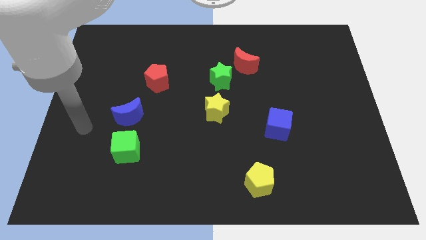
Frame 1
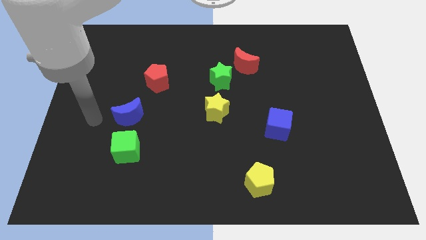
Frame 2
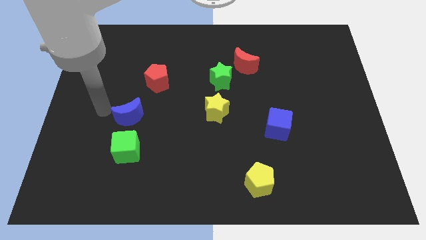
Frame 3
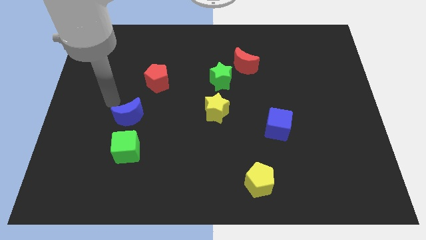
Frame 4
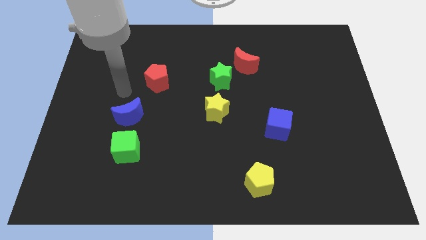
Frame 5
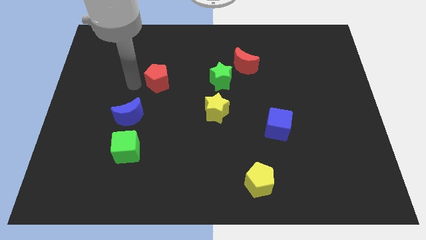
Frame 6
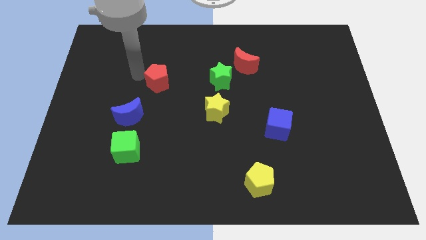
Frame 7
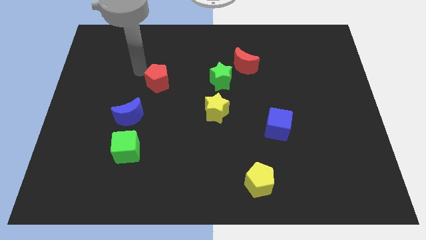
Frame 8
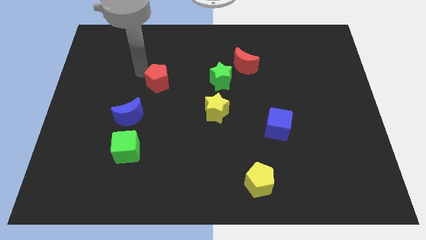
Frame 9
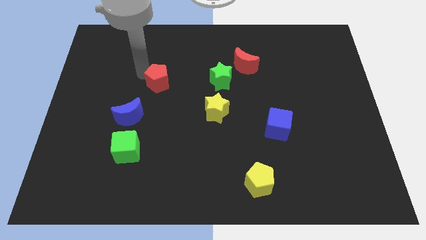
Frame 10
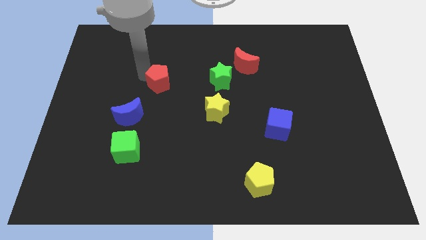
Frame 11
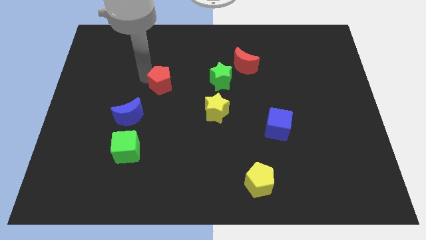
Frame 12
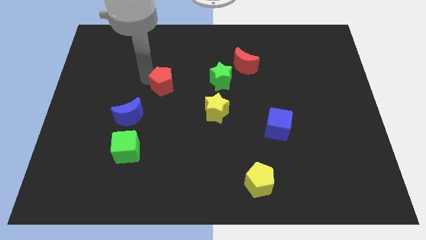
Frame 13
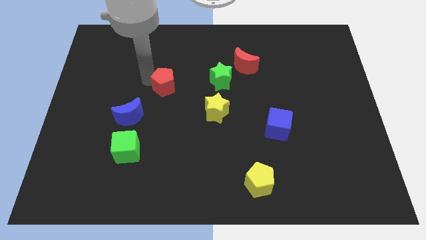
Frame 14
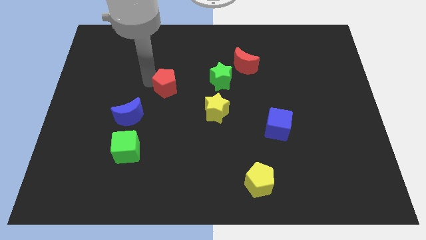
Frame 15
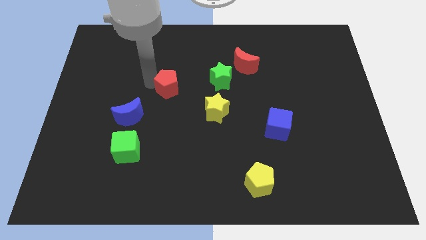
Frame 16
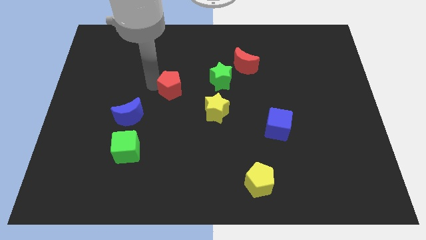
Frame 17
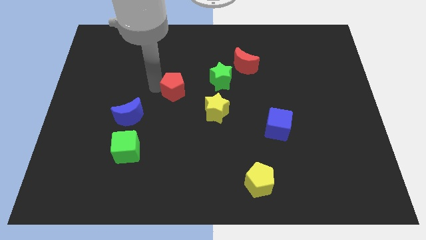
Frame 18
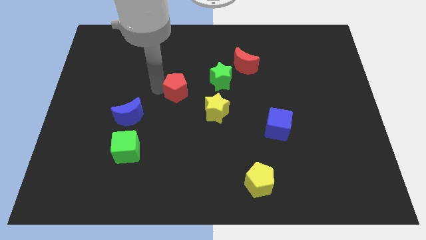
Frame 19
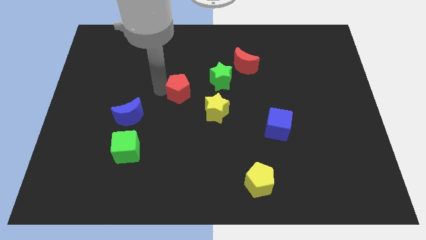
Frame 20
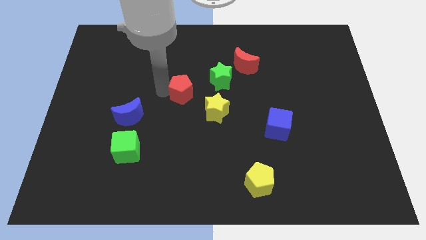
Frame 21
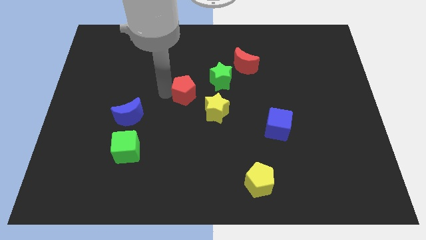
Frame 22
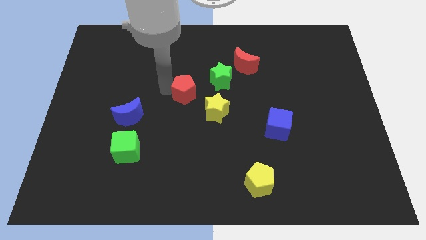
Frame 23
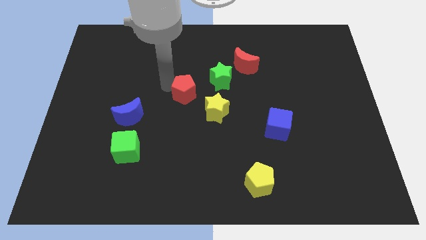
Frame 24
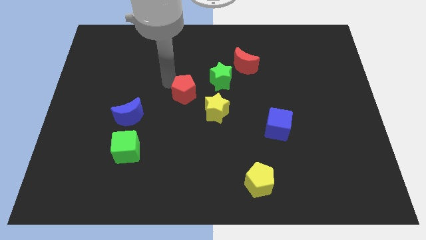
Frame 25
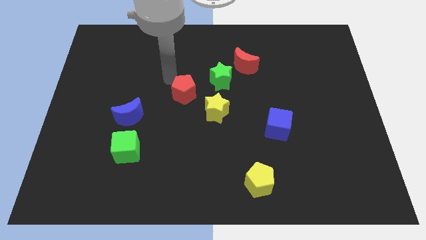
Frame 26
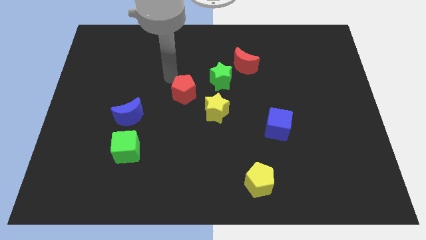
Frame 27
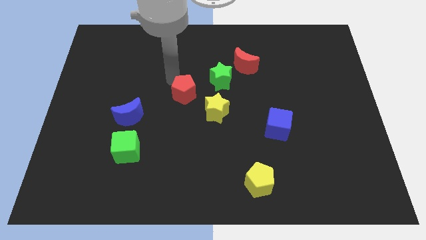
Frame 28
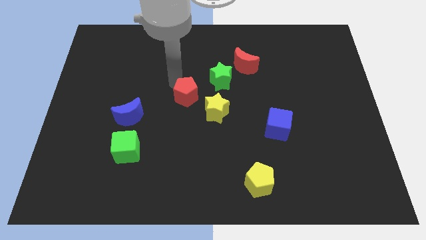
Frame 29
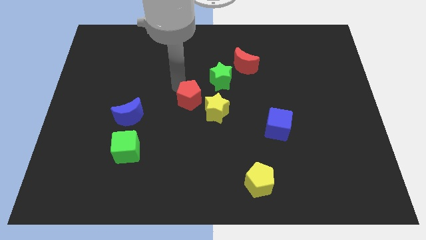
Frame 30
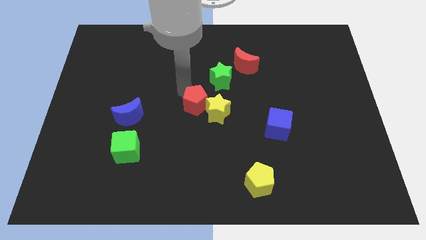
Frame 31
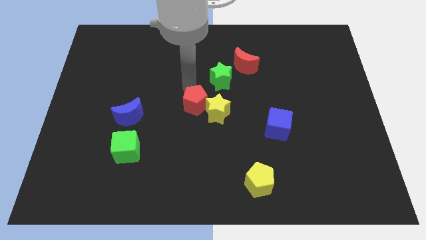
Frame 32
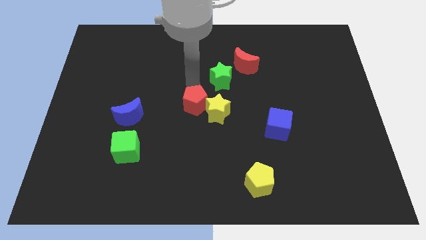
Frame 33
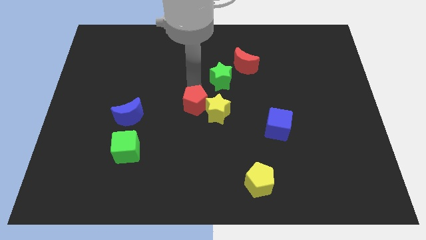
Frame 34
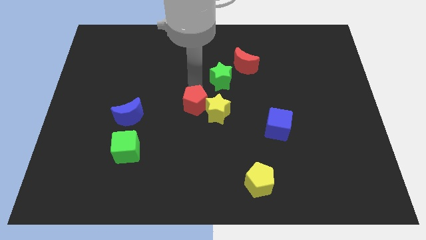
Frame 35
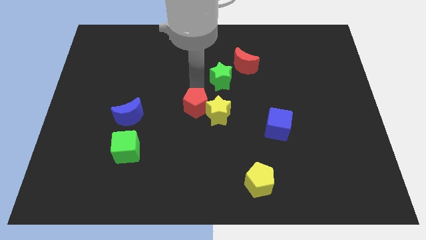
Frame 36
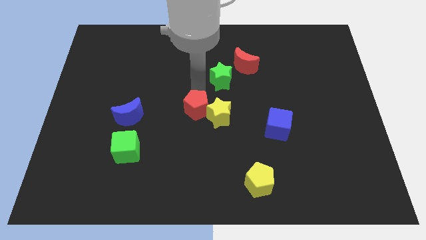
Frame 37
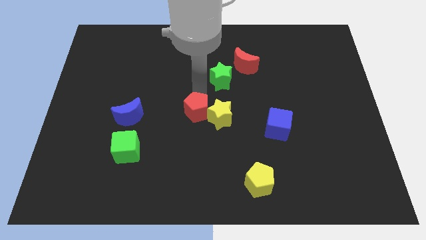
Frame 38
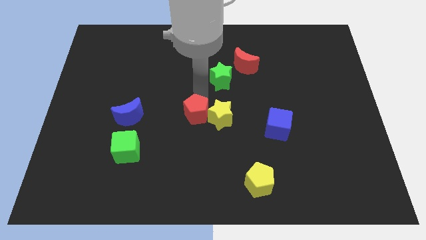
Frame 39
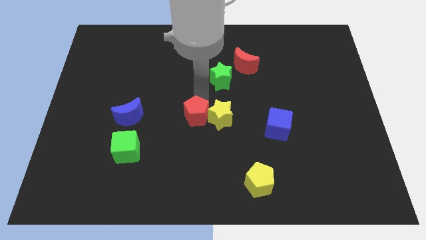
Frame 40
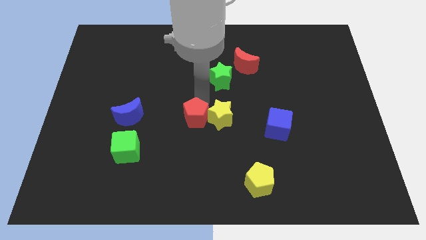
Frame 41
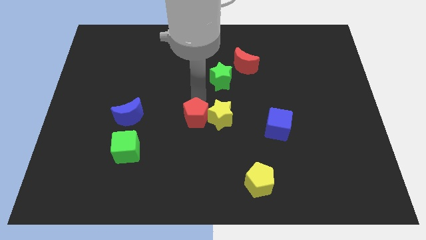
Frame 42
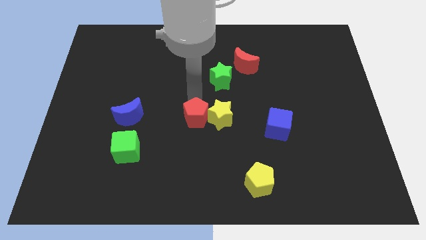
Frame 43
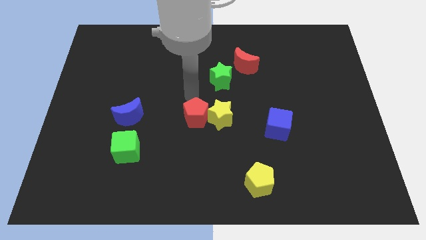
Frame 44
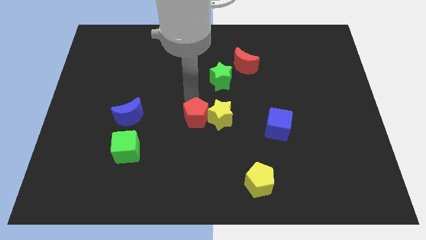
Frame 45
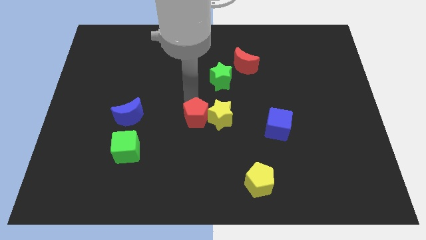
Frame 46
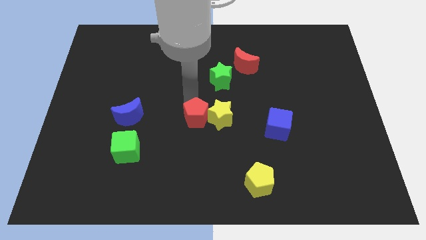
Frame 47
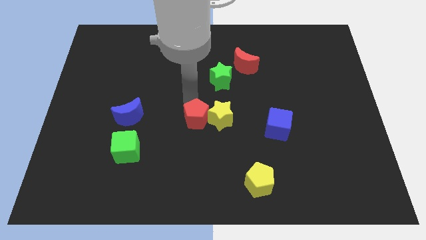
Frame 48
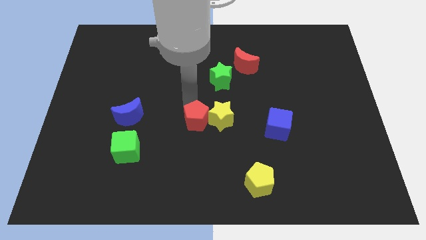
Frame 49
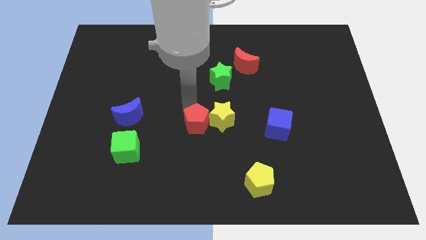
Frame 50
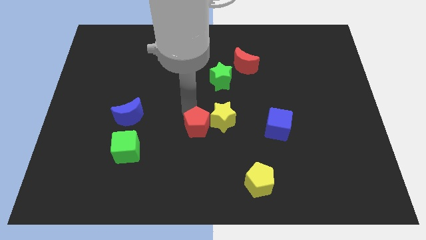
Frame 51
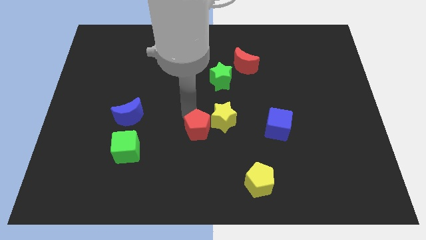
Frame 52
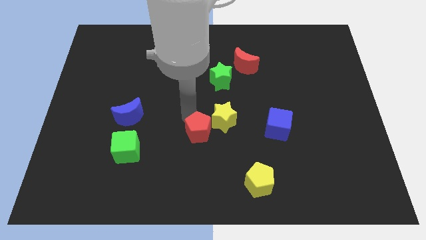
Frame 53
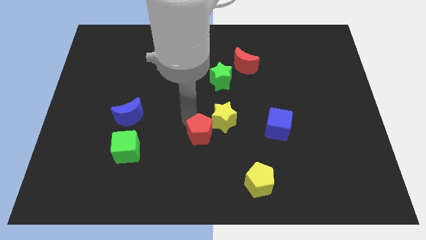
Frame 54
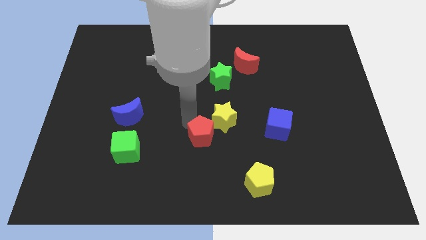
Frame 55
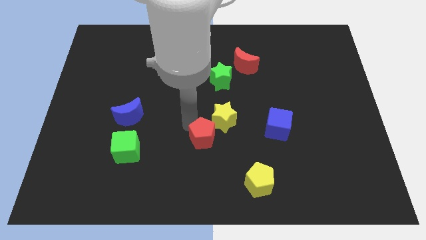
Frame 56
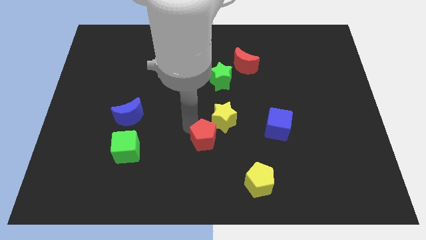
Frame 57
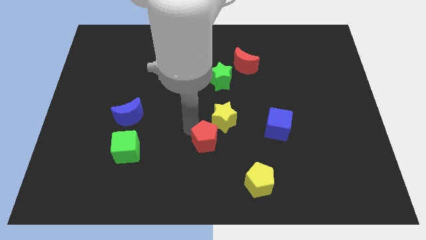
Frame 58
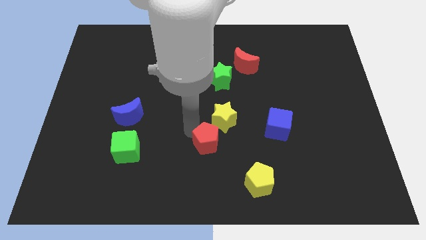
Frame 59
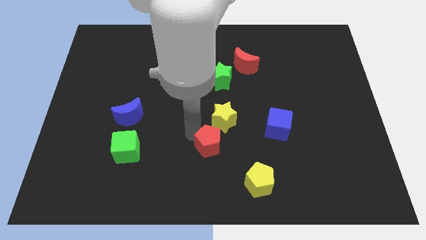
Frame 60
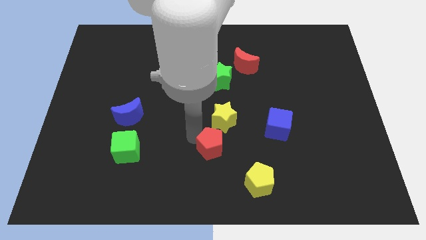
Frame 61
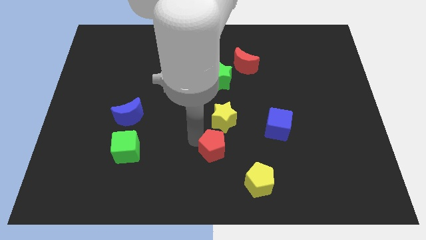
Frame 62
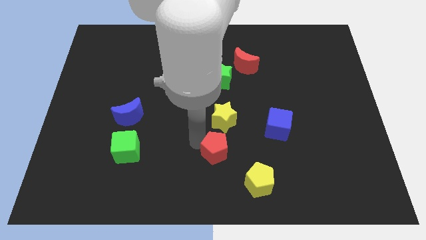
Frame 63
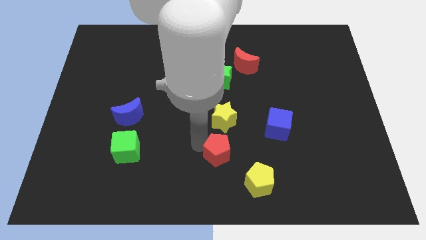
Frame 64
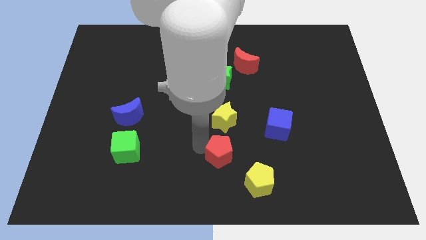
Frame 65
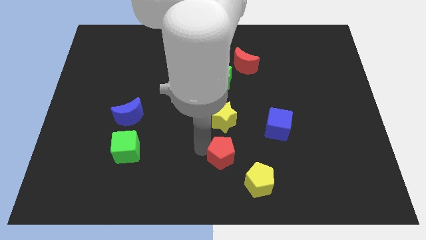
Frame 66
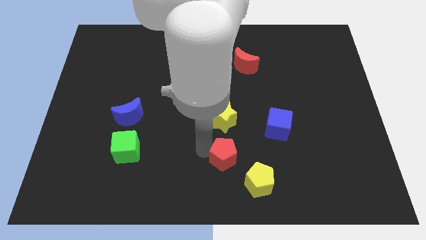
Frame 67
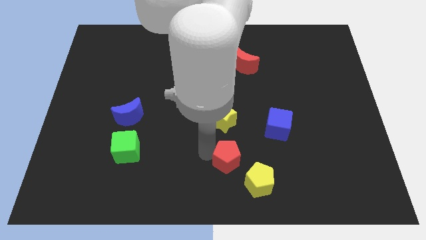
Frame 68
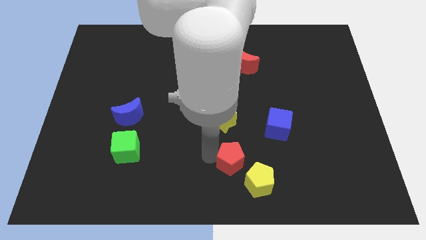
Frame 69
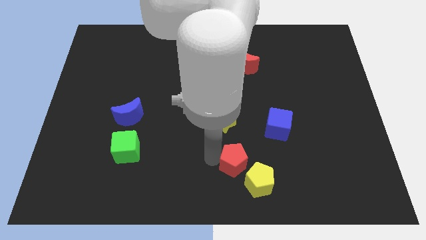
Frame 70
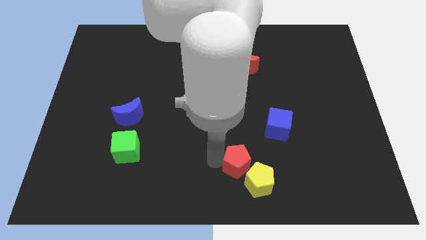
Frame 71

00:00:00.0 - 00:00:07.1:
put the red pentagon towards the yellow pentagon

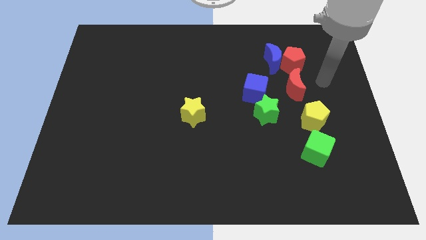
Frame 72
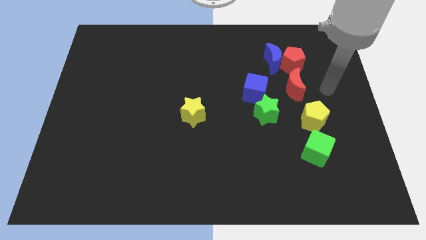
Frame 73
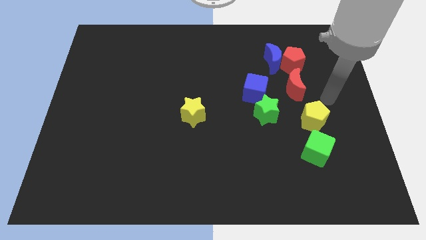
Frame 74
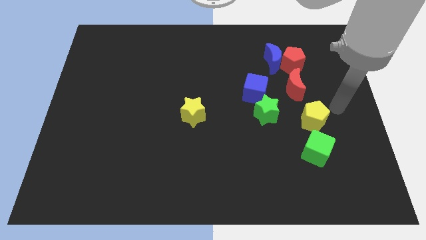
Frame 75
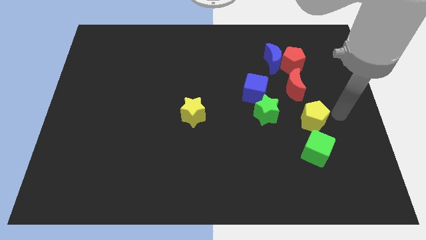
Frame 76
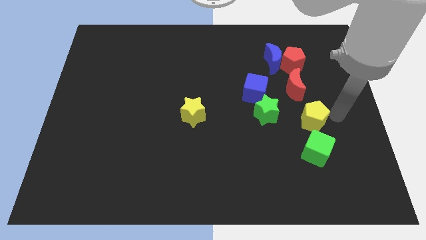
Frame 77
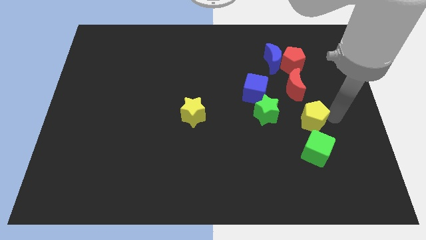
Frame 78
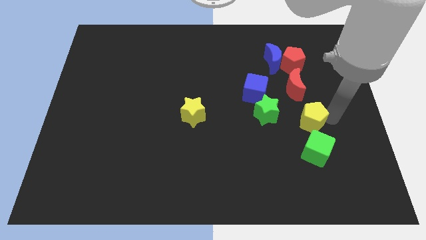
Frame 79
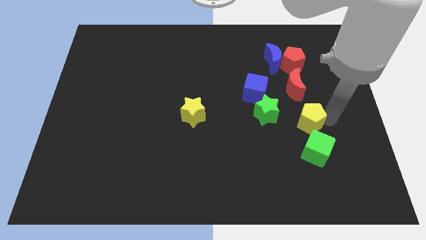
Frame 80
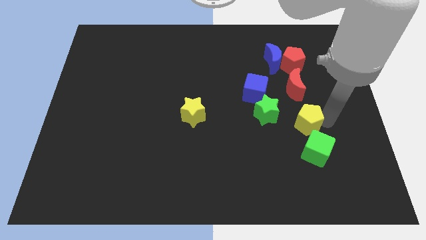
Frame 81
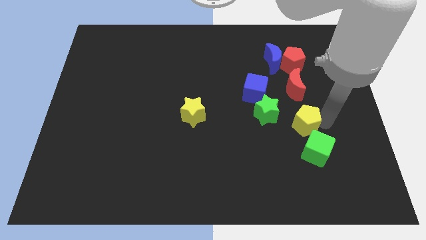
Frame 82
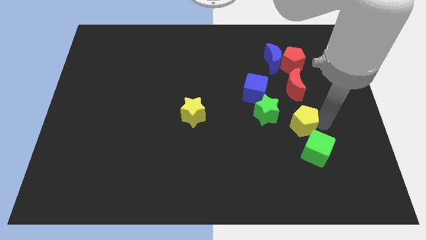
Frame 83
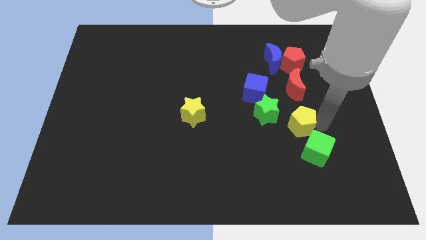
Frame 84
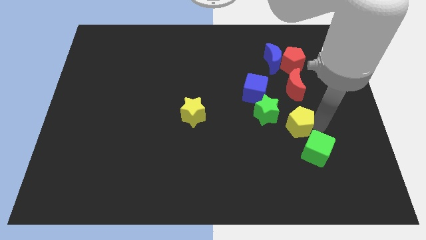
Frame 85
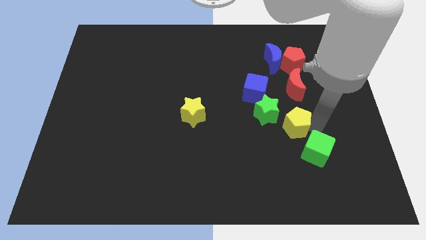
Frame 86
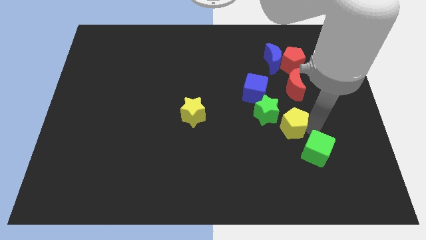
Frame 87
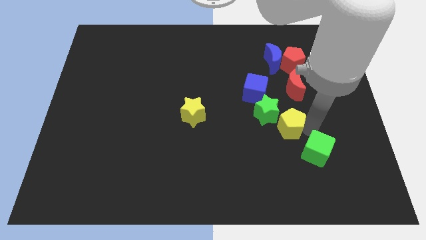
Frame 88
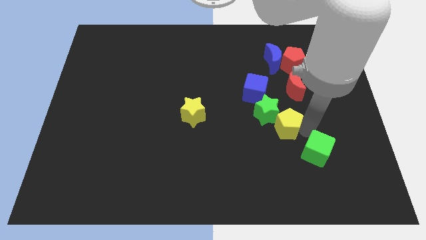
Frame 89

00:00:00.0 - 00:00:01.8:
move the yellow pentagon next to the green star
